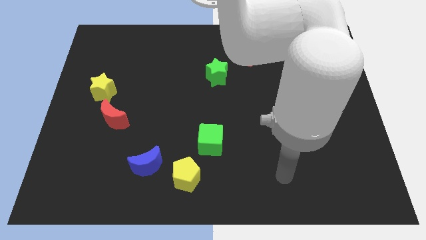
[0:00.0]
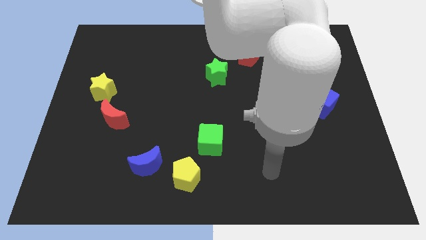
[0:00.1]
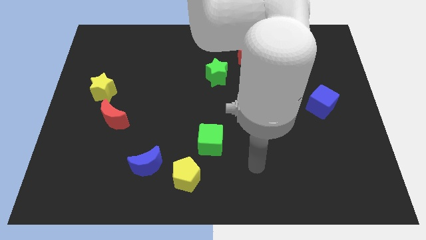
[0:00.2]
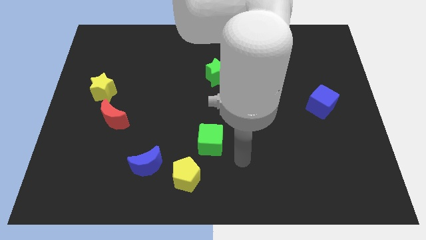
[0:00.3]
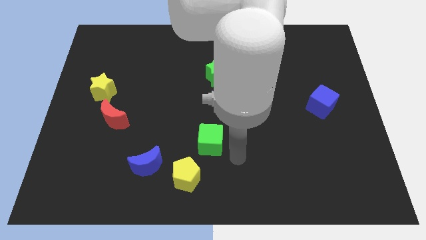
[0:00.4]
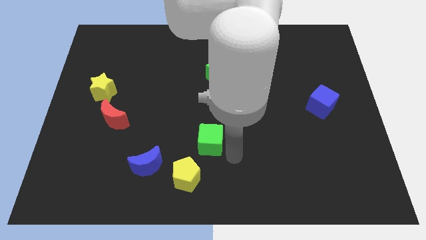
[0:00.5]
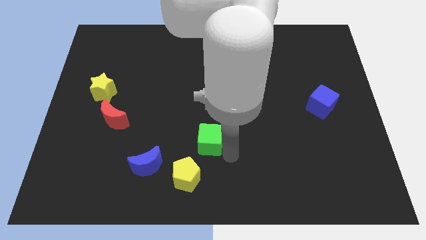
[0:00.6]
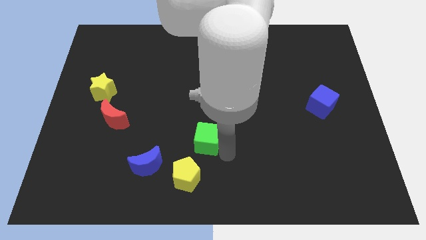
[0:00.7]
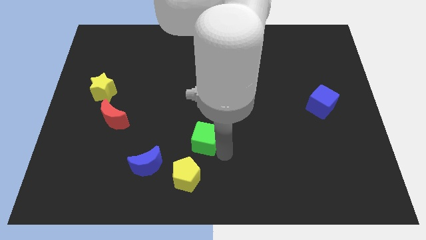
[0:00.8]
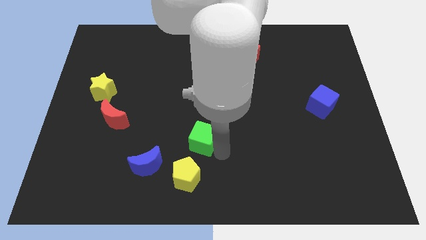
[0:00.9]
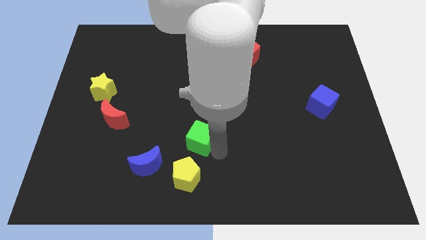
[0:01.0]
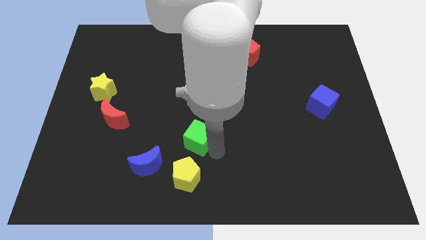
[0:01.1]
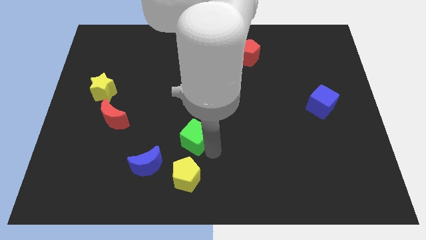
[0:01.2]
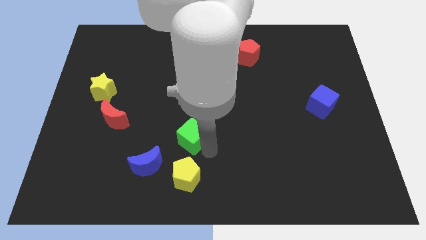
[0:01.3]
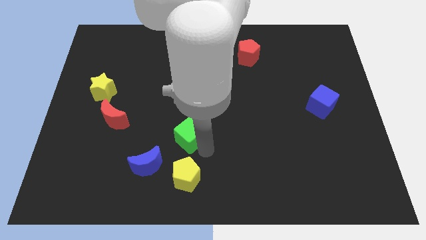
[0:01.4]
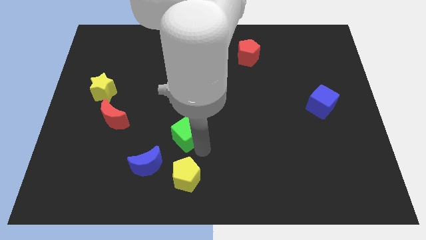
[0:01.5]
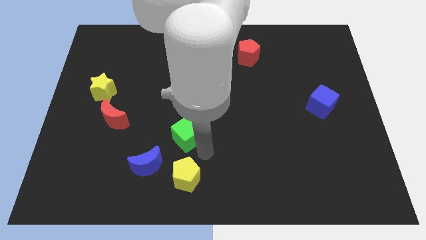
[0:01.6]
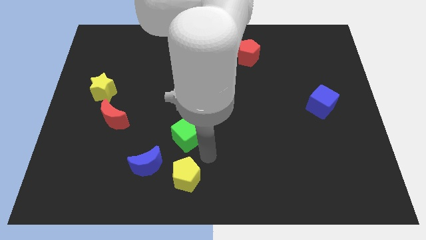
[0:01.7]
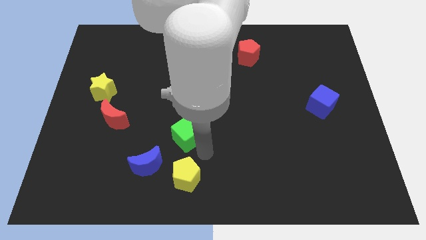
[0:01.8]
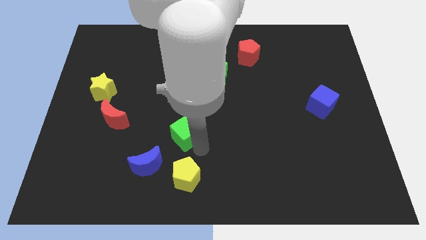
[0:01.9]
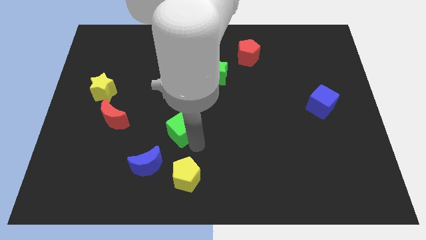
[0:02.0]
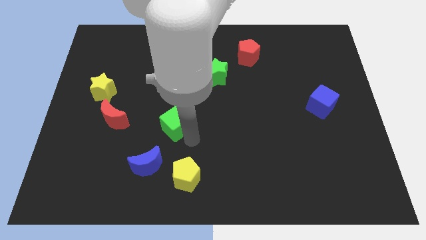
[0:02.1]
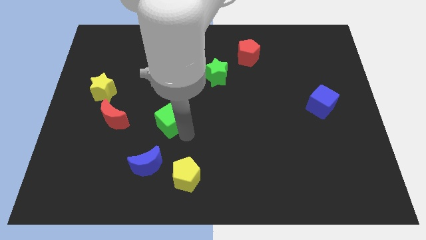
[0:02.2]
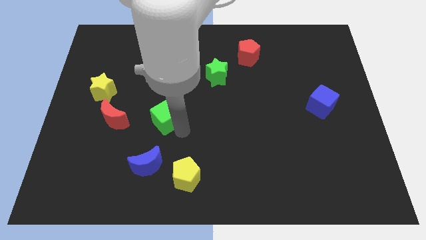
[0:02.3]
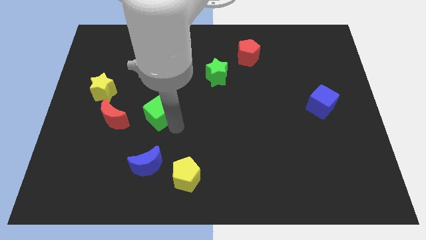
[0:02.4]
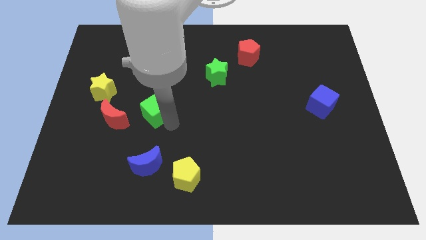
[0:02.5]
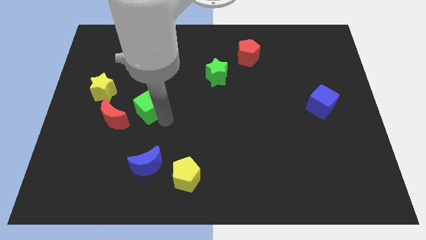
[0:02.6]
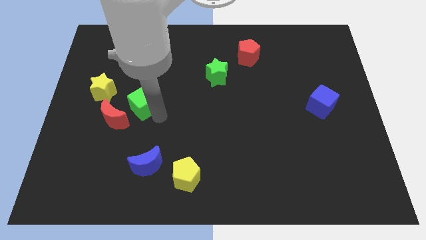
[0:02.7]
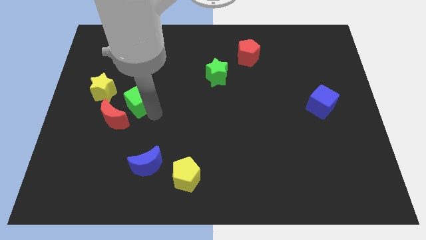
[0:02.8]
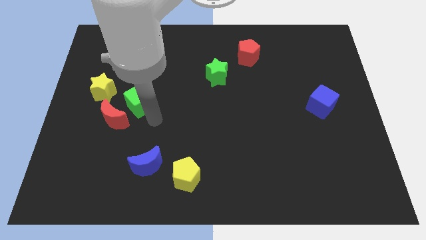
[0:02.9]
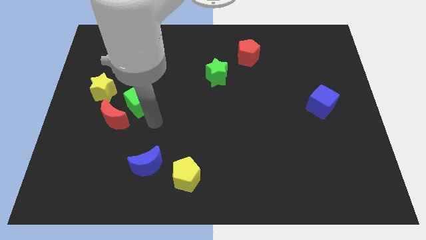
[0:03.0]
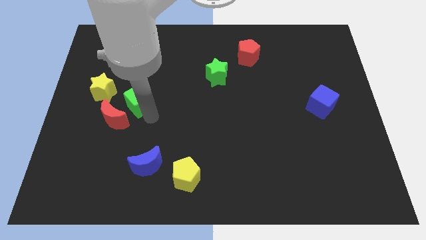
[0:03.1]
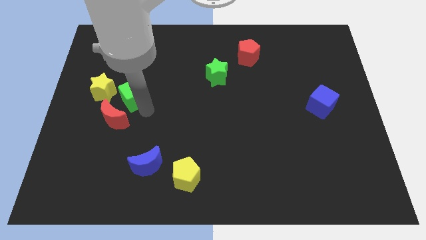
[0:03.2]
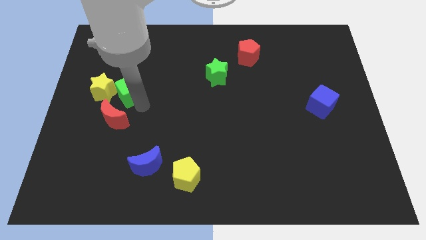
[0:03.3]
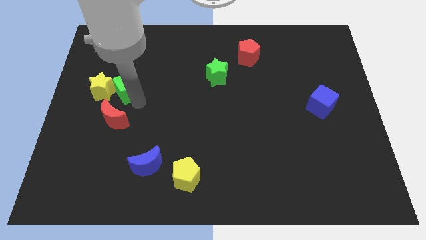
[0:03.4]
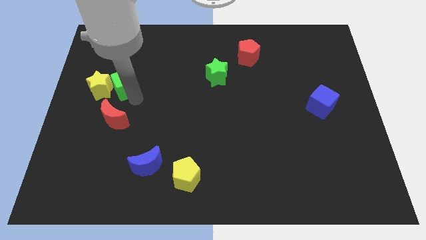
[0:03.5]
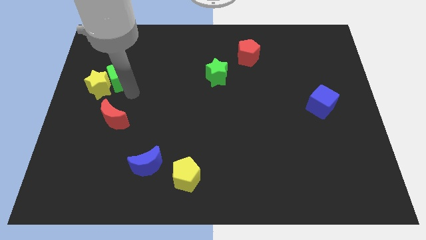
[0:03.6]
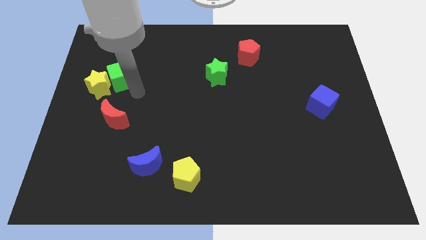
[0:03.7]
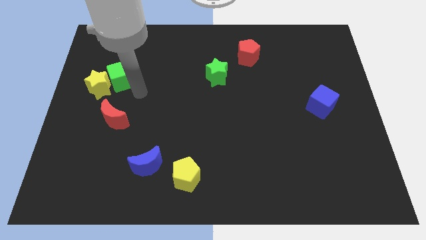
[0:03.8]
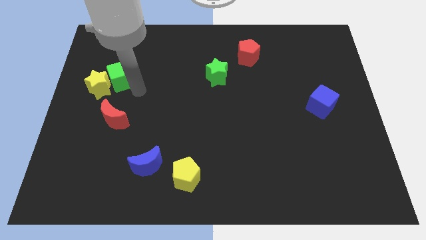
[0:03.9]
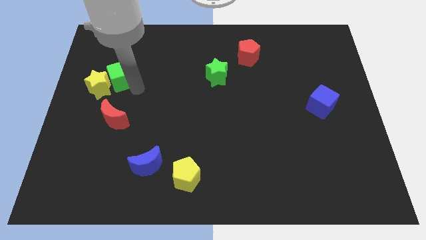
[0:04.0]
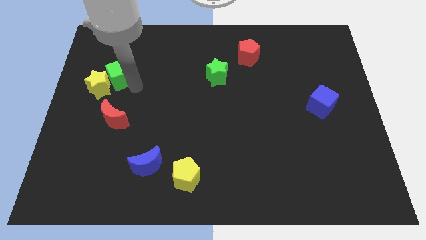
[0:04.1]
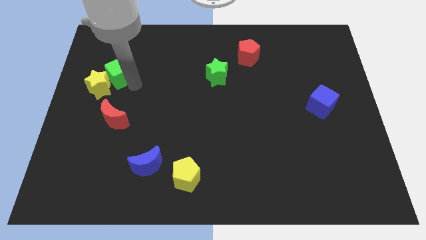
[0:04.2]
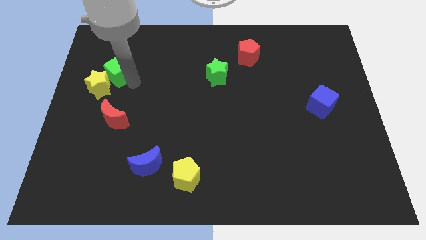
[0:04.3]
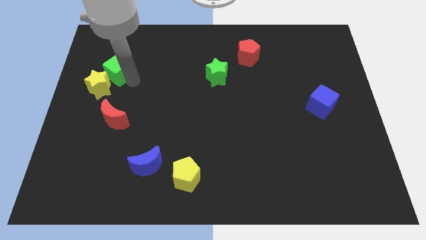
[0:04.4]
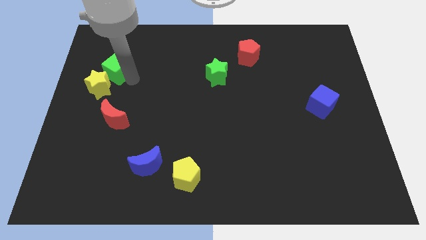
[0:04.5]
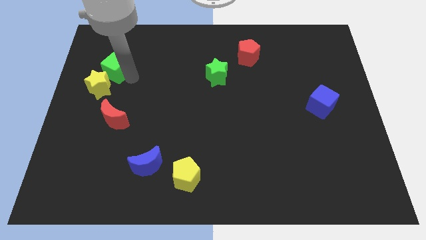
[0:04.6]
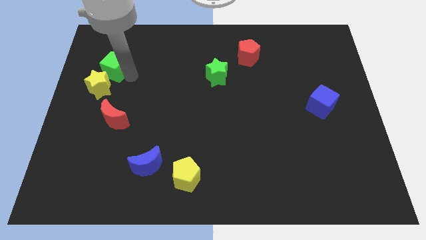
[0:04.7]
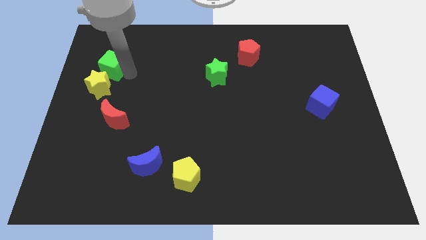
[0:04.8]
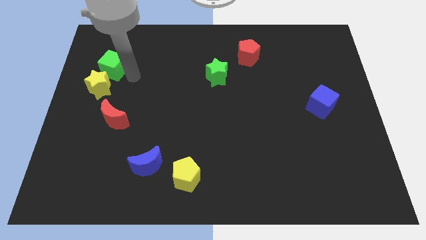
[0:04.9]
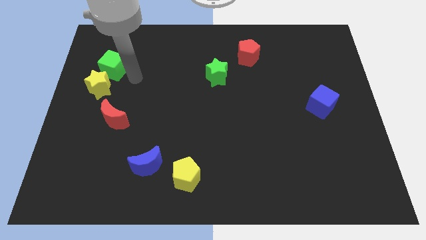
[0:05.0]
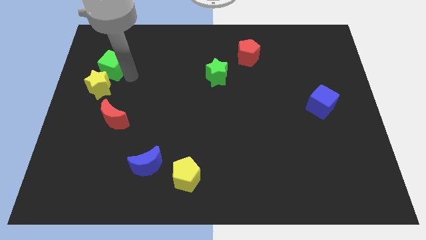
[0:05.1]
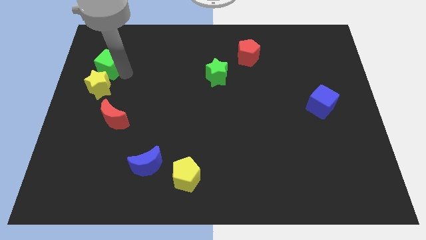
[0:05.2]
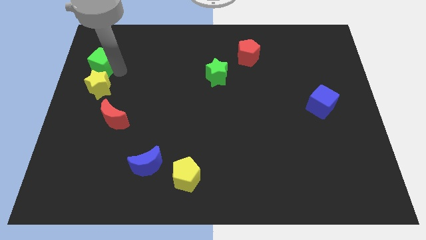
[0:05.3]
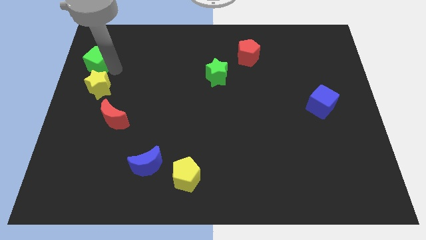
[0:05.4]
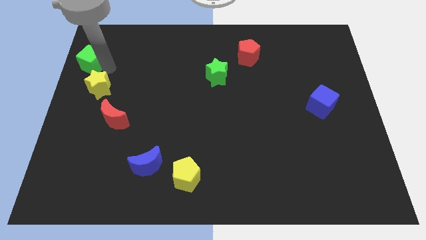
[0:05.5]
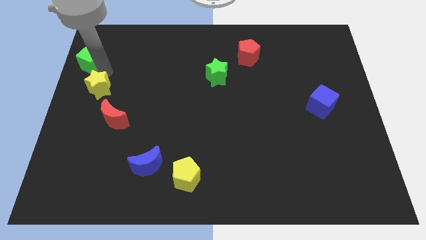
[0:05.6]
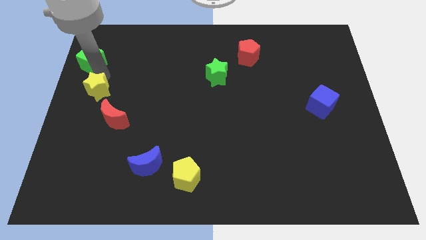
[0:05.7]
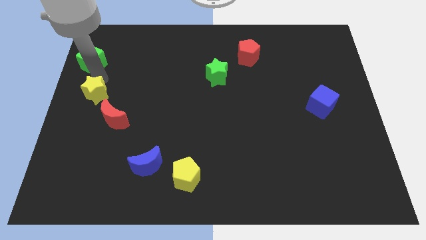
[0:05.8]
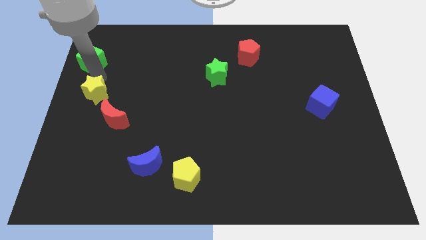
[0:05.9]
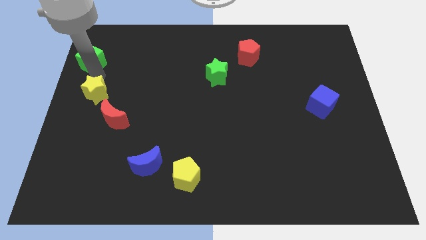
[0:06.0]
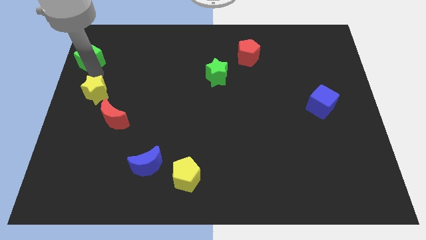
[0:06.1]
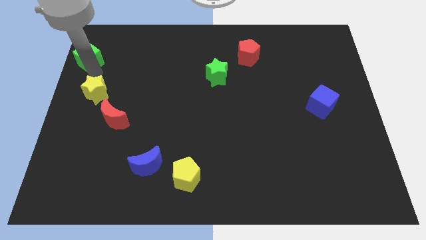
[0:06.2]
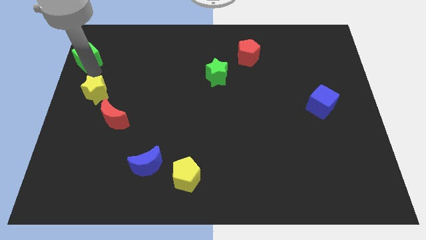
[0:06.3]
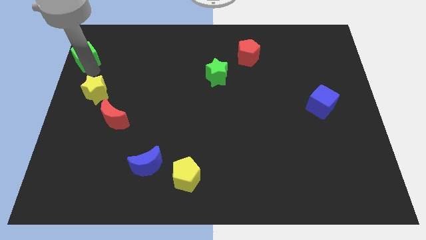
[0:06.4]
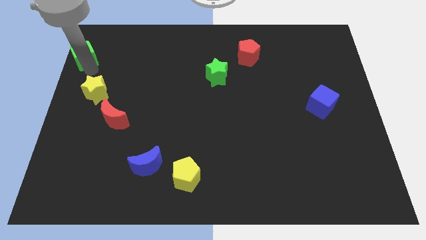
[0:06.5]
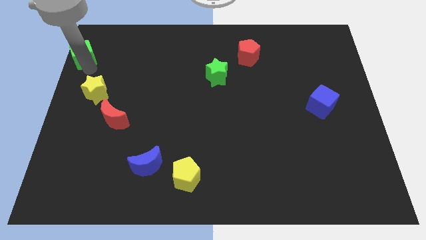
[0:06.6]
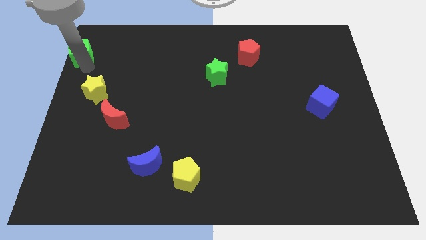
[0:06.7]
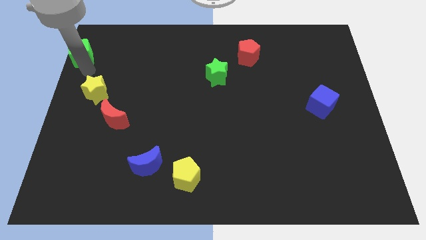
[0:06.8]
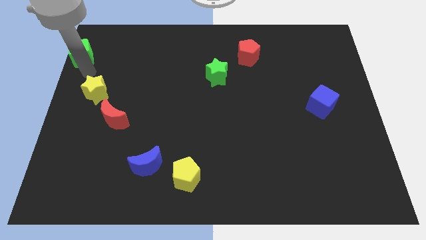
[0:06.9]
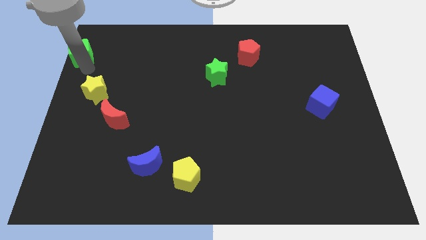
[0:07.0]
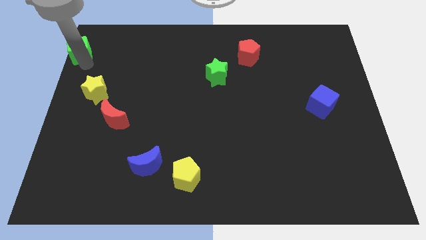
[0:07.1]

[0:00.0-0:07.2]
put the green cube to the top left corner

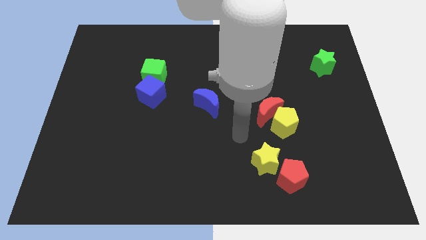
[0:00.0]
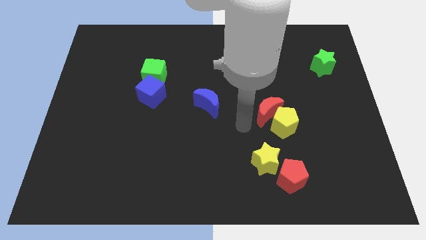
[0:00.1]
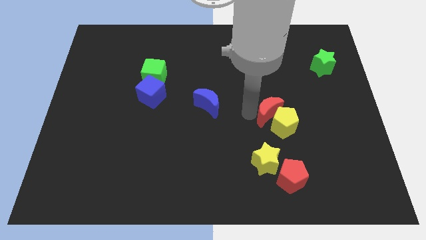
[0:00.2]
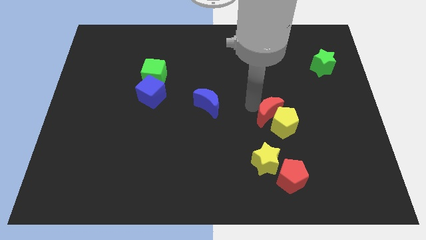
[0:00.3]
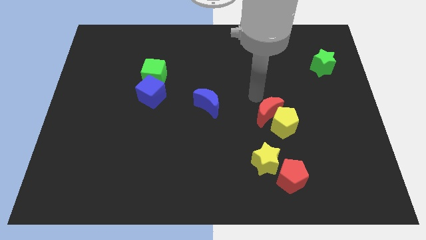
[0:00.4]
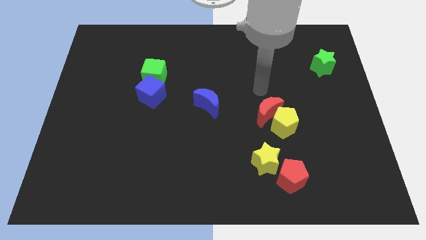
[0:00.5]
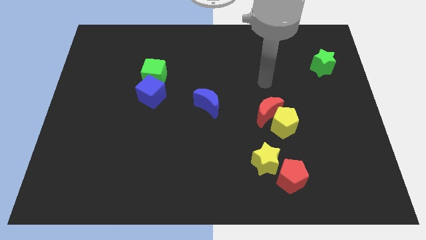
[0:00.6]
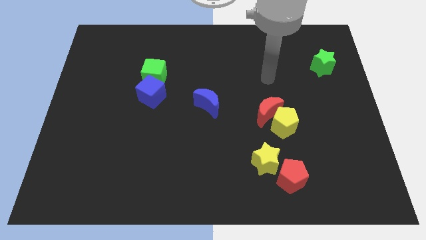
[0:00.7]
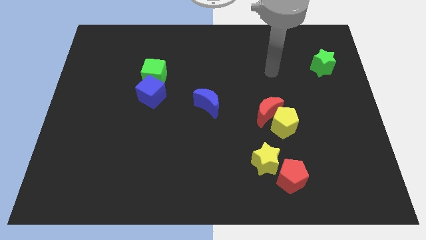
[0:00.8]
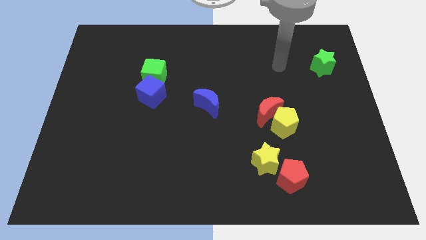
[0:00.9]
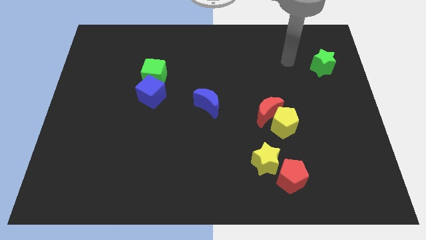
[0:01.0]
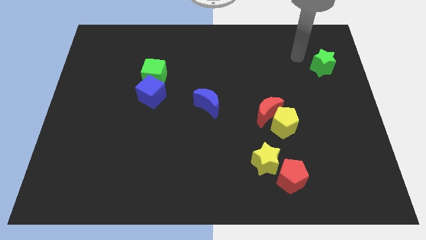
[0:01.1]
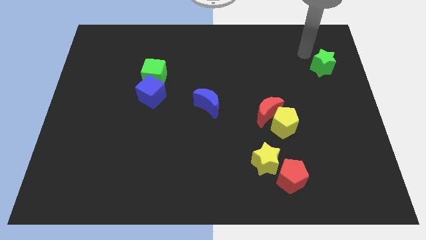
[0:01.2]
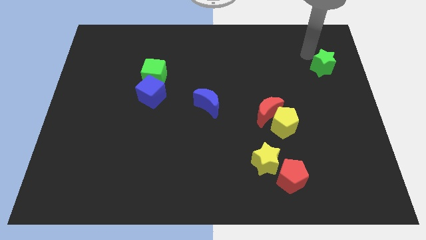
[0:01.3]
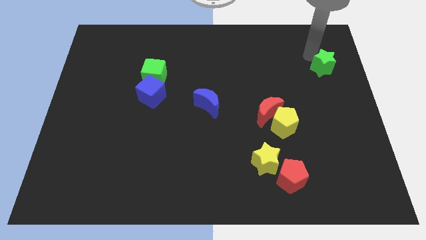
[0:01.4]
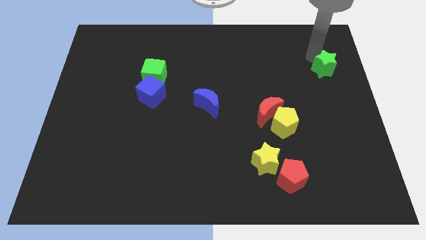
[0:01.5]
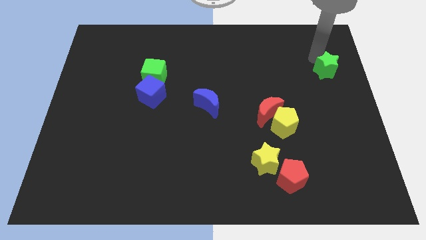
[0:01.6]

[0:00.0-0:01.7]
push the green star to the right side of the board
